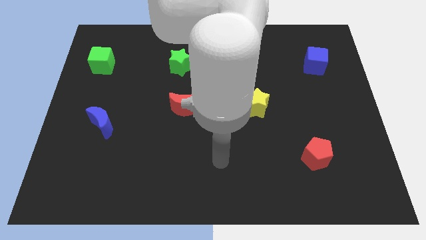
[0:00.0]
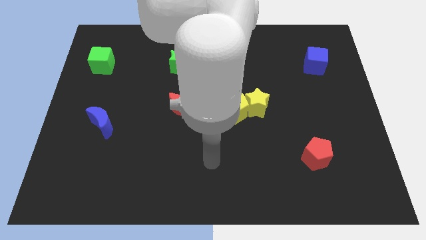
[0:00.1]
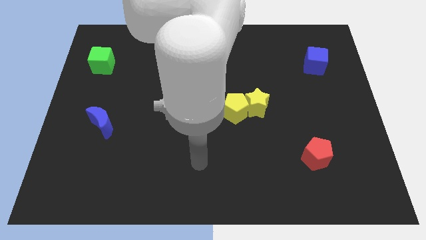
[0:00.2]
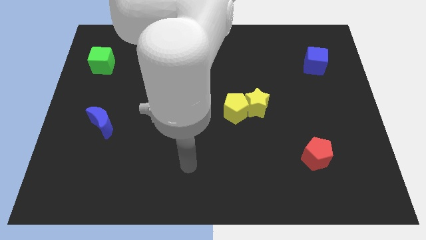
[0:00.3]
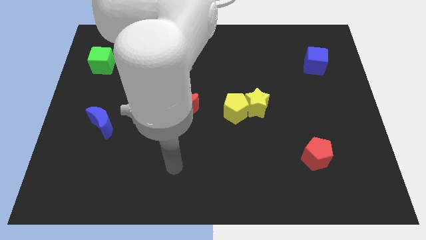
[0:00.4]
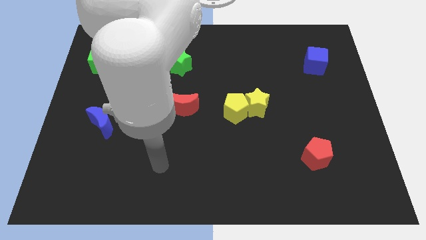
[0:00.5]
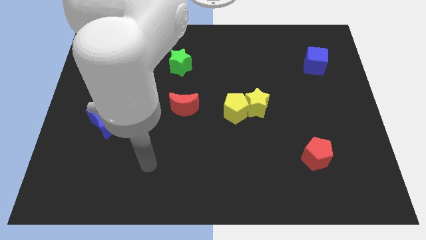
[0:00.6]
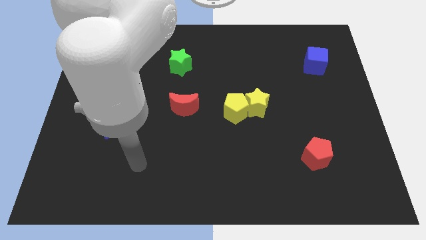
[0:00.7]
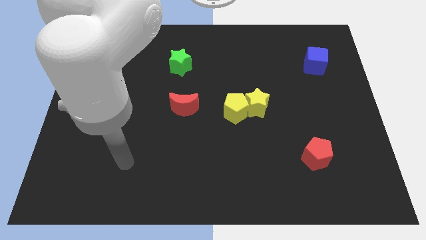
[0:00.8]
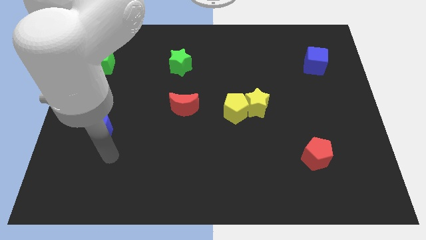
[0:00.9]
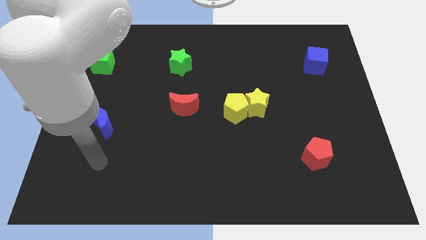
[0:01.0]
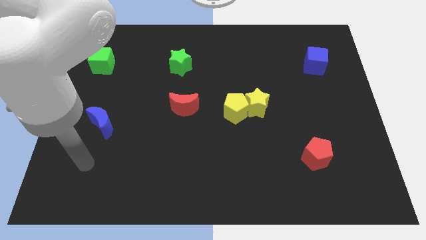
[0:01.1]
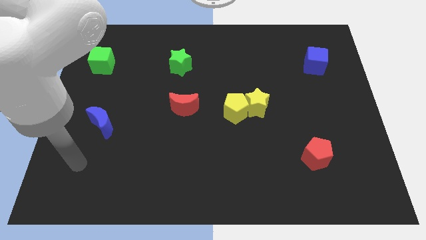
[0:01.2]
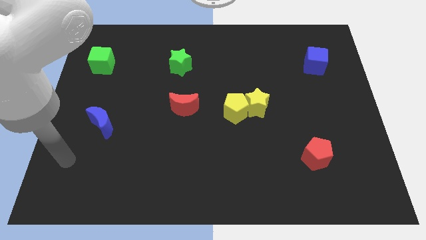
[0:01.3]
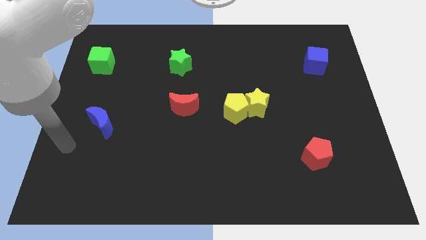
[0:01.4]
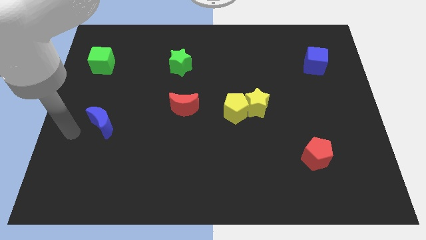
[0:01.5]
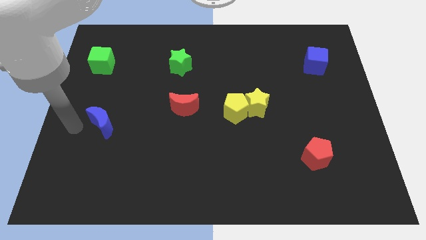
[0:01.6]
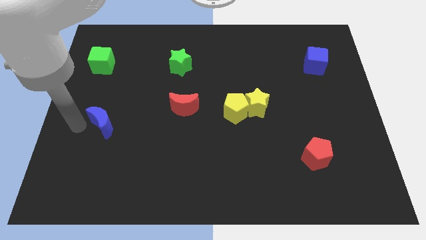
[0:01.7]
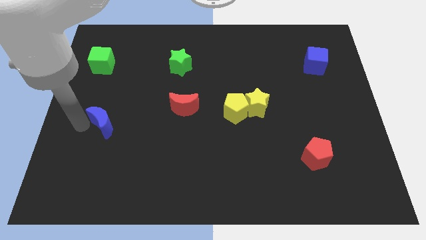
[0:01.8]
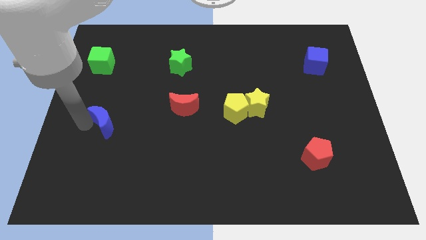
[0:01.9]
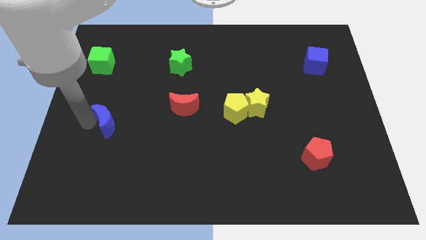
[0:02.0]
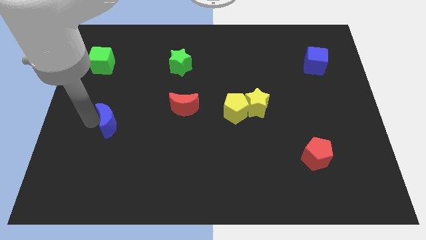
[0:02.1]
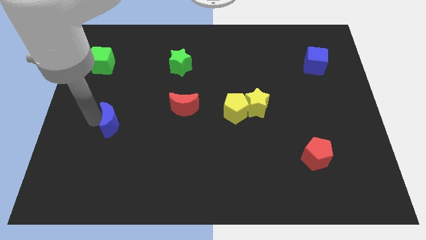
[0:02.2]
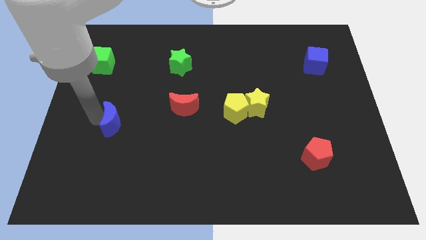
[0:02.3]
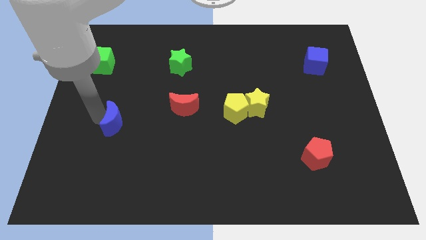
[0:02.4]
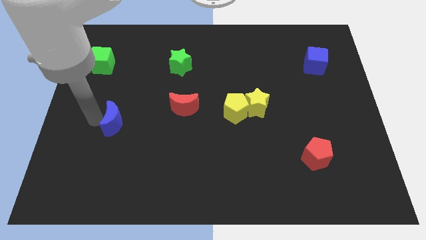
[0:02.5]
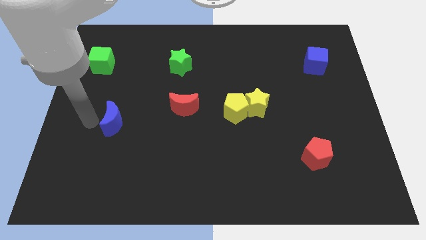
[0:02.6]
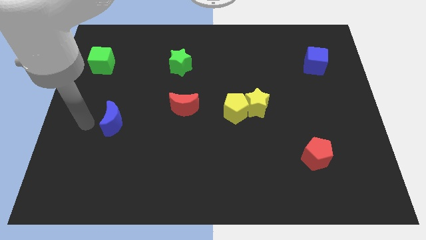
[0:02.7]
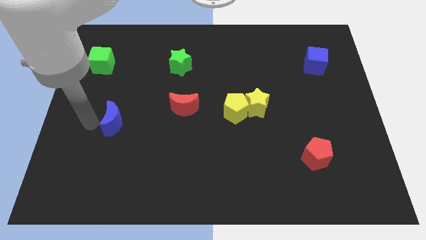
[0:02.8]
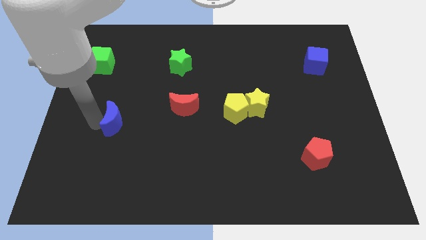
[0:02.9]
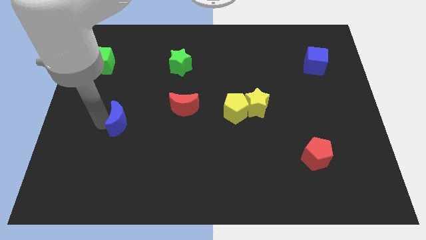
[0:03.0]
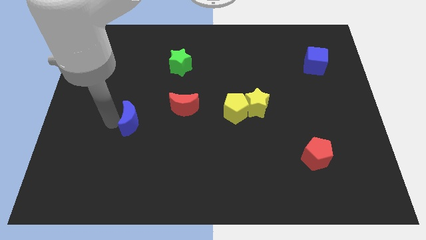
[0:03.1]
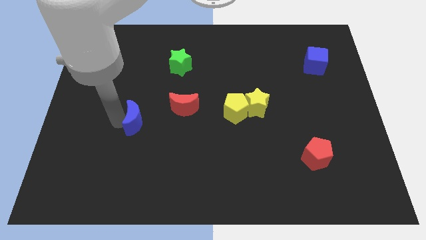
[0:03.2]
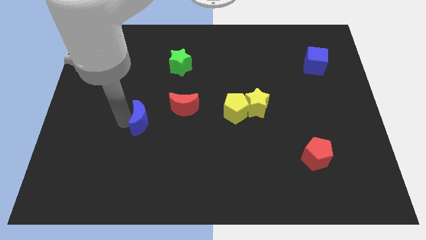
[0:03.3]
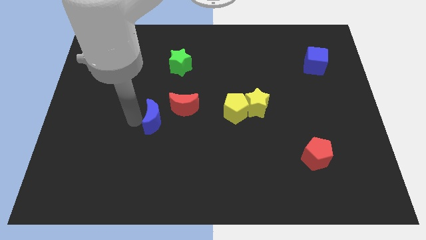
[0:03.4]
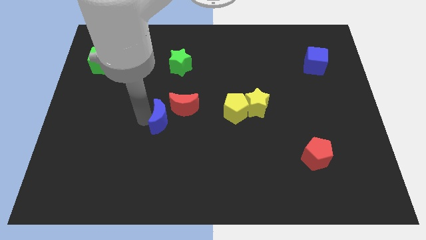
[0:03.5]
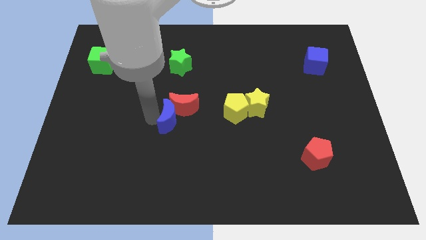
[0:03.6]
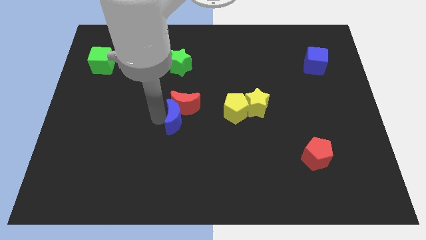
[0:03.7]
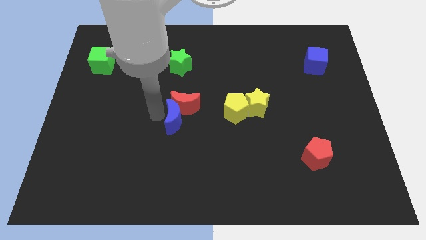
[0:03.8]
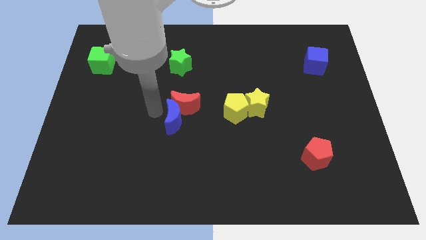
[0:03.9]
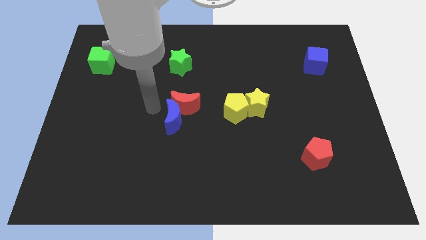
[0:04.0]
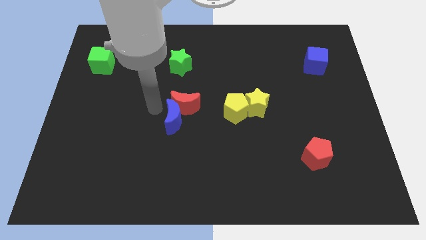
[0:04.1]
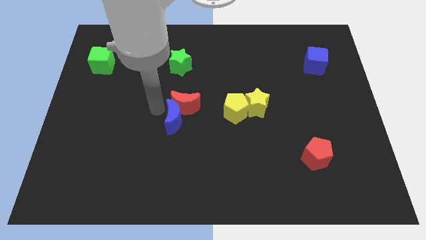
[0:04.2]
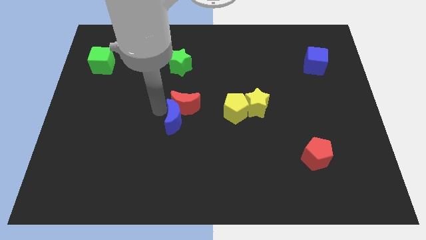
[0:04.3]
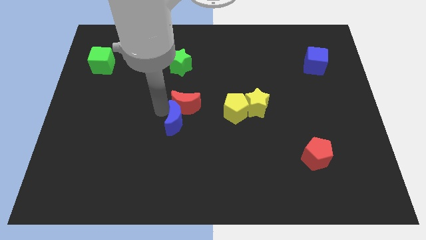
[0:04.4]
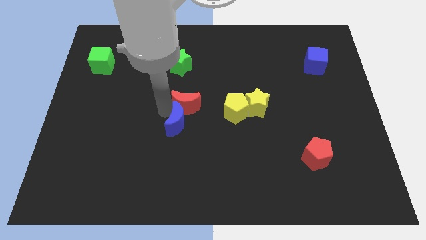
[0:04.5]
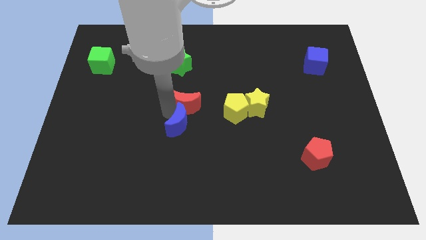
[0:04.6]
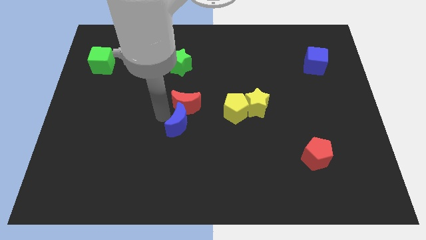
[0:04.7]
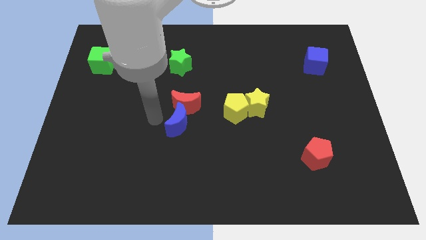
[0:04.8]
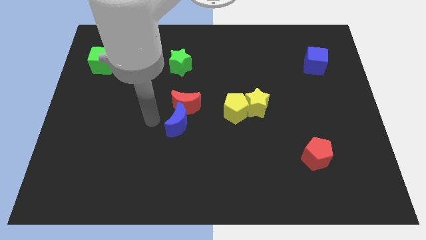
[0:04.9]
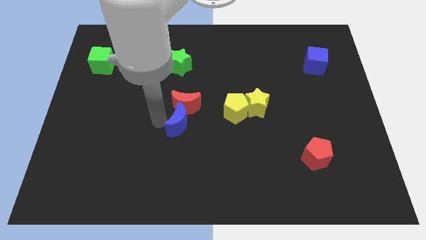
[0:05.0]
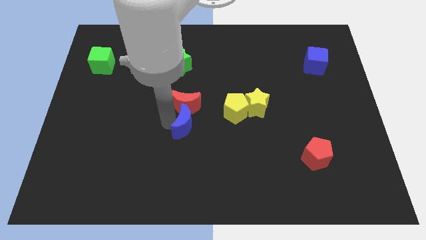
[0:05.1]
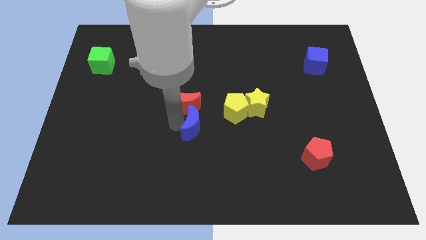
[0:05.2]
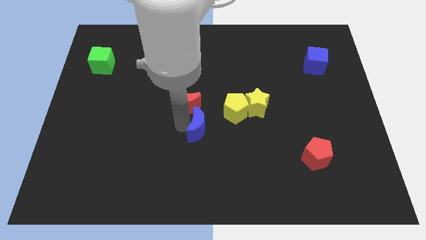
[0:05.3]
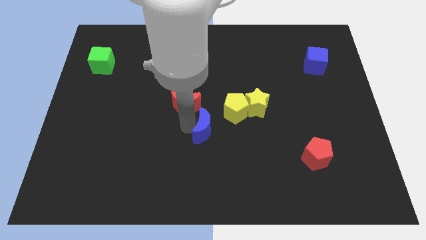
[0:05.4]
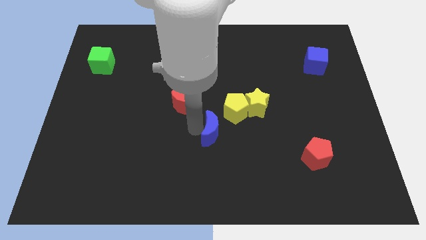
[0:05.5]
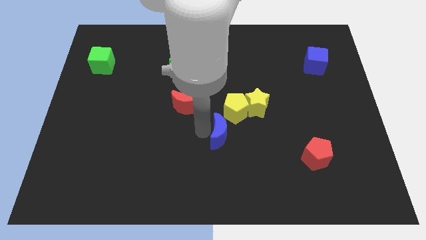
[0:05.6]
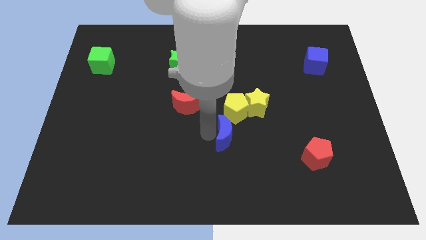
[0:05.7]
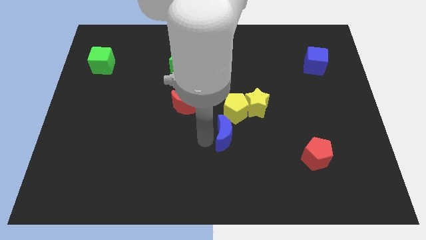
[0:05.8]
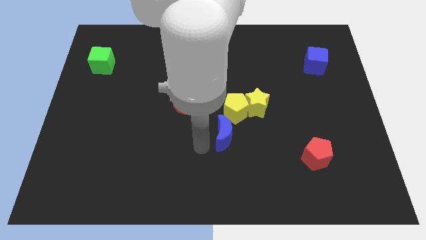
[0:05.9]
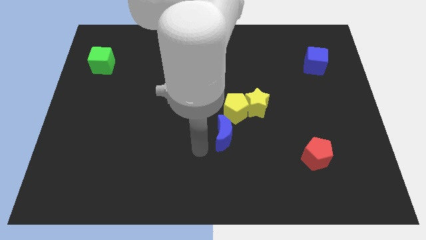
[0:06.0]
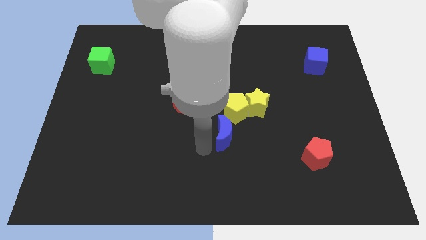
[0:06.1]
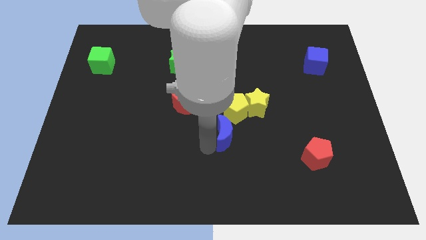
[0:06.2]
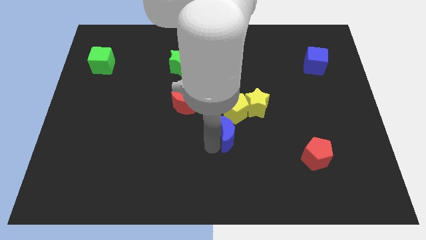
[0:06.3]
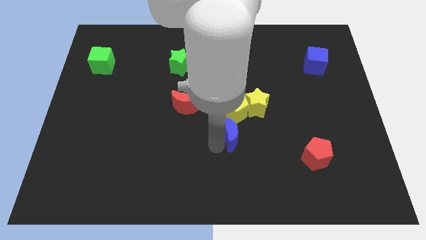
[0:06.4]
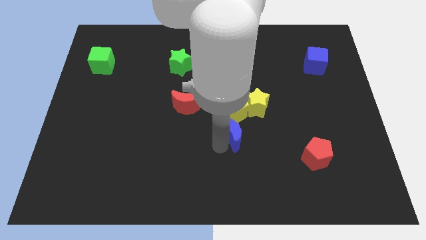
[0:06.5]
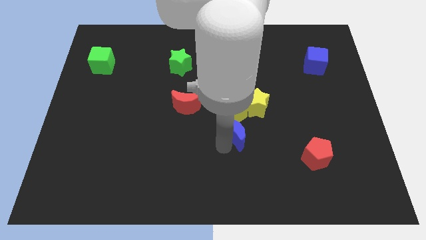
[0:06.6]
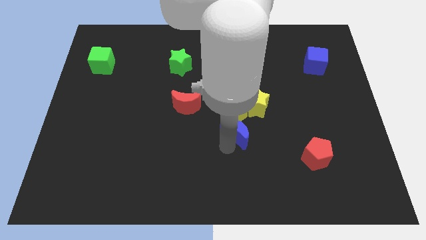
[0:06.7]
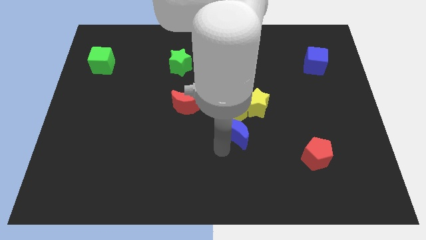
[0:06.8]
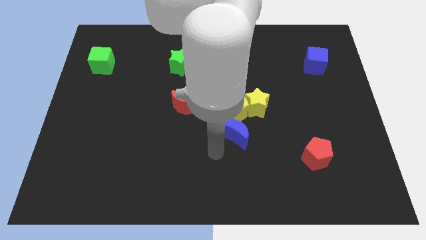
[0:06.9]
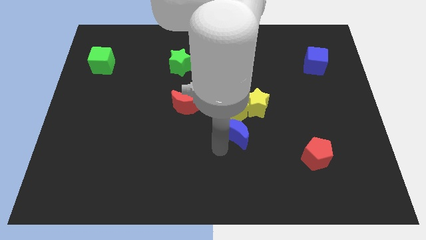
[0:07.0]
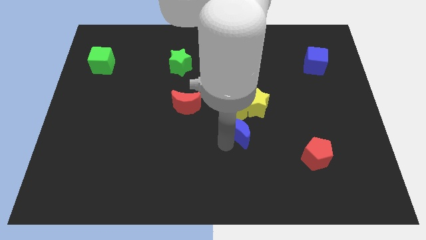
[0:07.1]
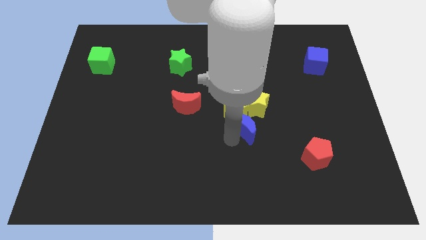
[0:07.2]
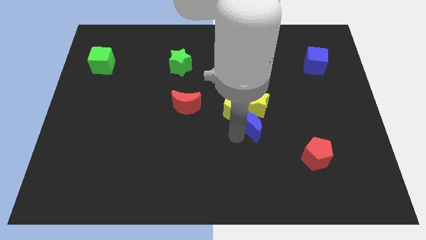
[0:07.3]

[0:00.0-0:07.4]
slide the blue moon close to the yellow star
